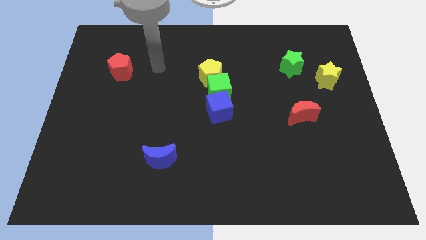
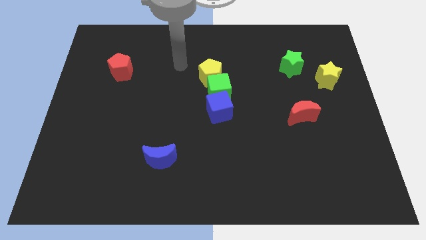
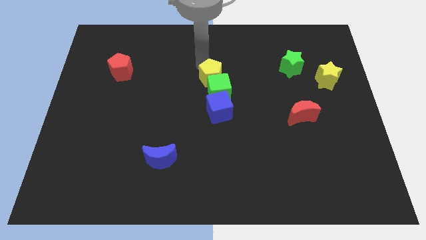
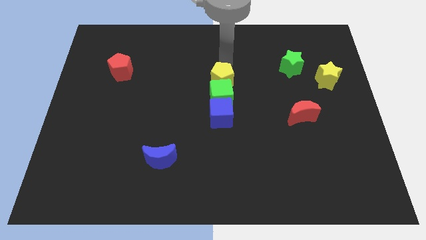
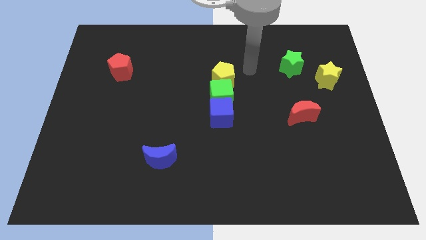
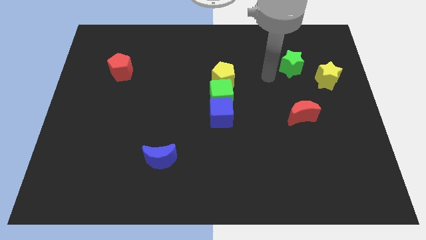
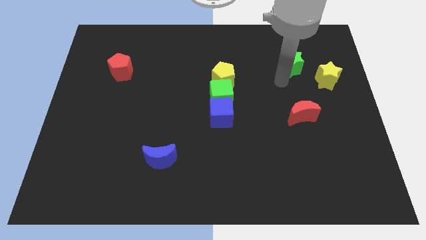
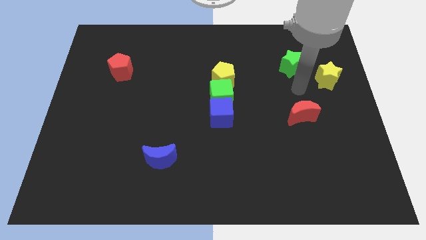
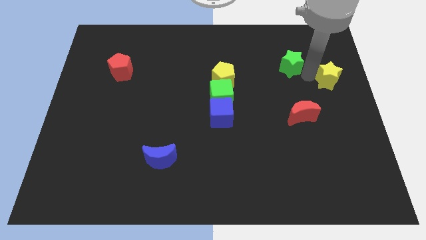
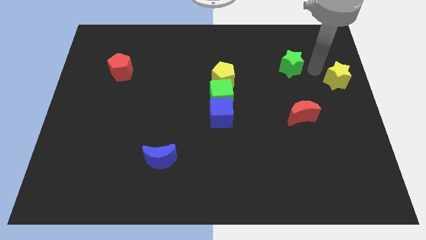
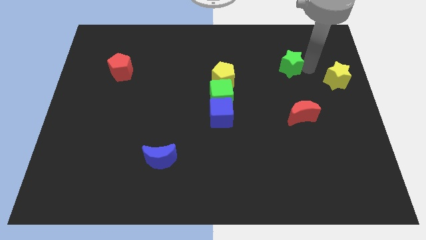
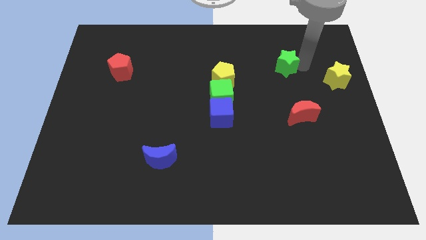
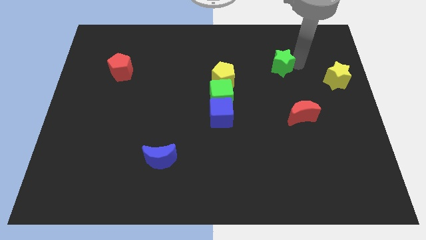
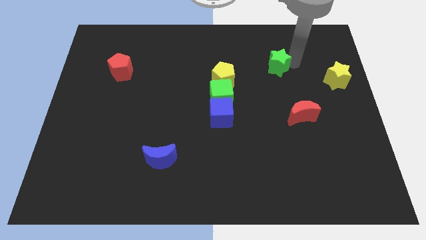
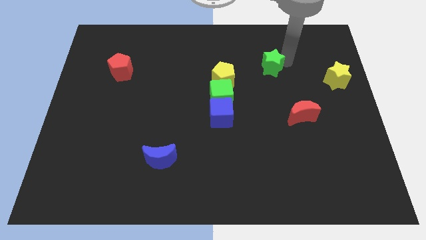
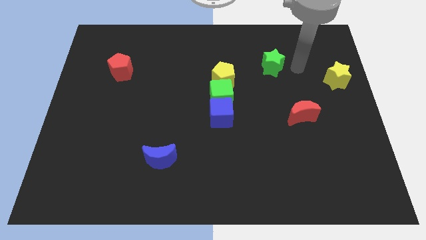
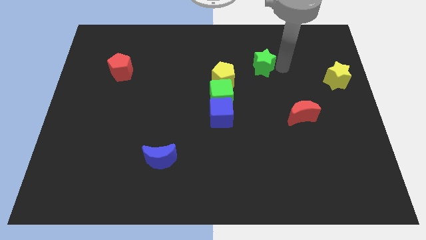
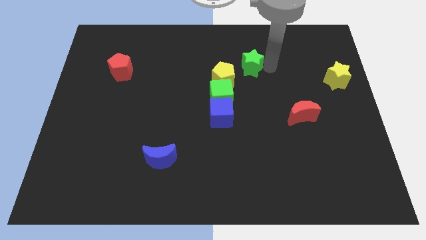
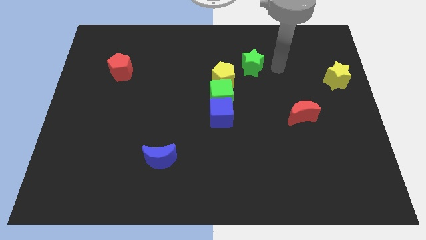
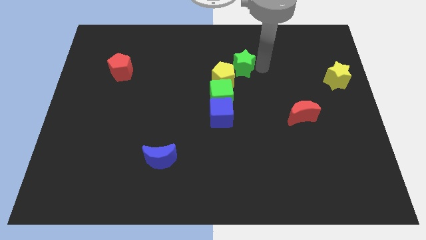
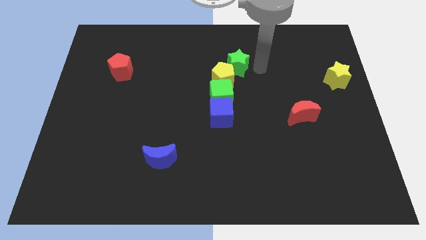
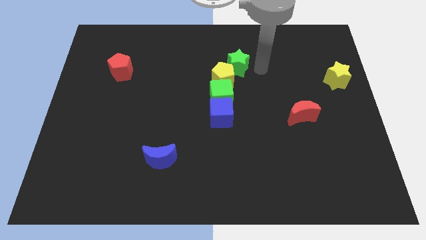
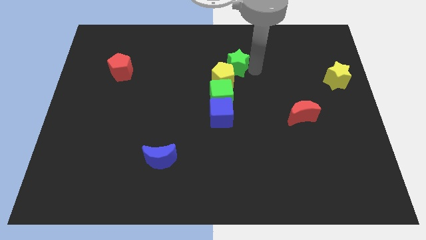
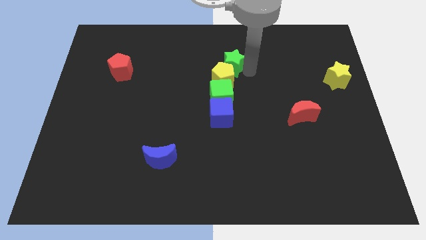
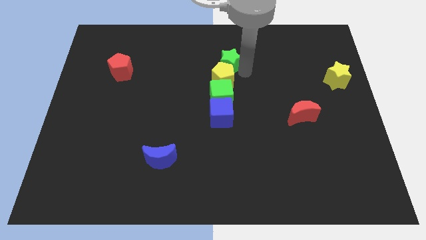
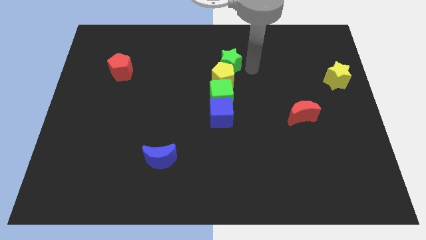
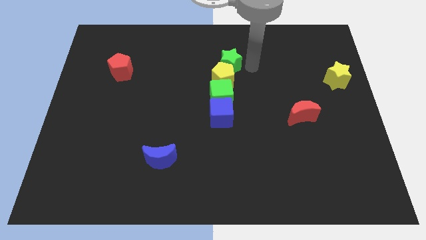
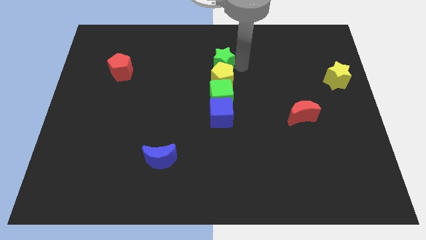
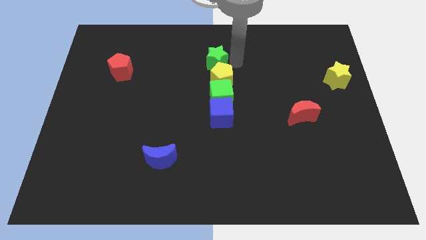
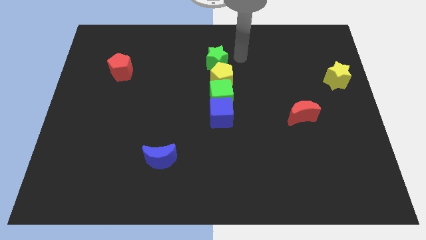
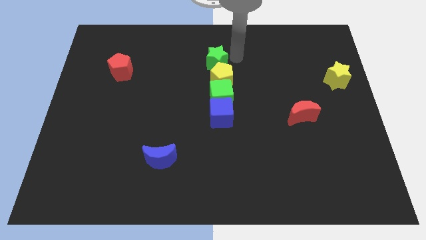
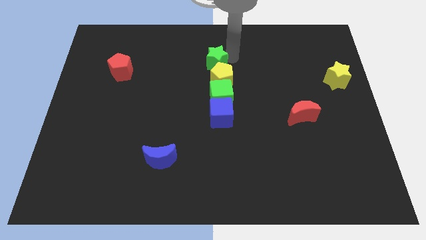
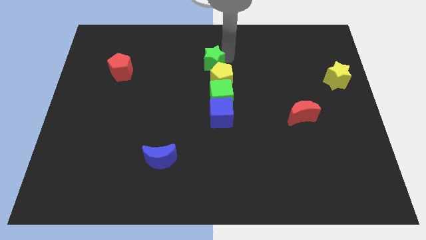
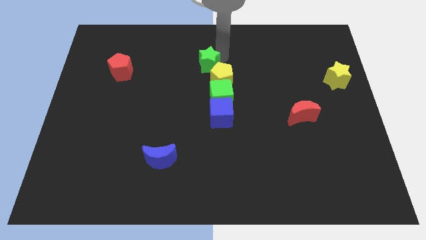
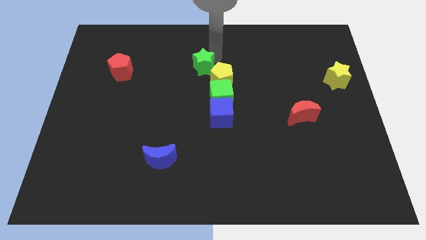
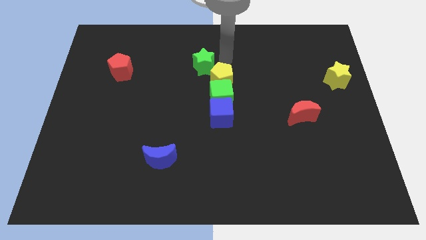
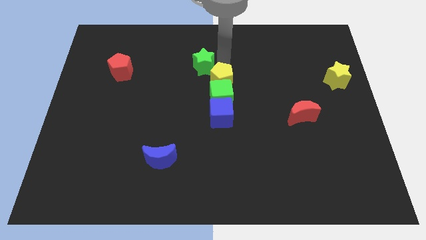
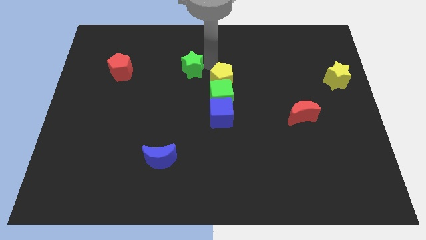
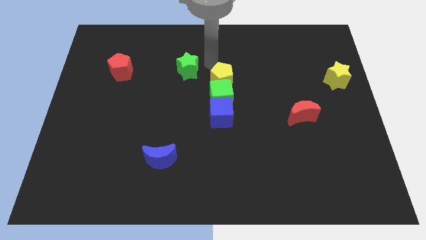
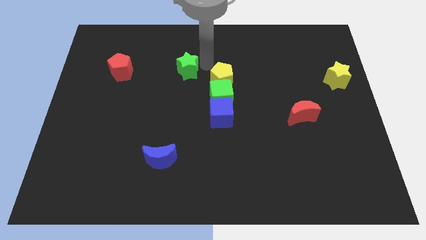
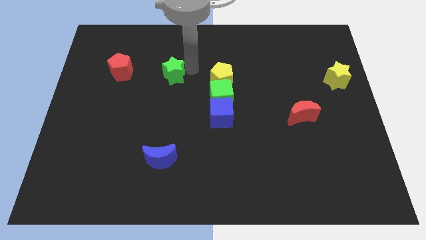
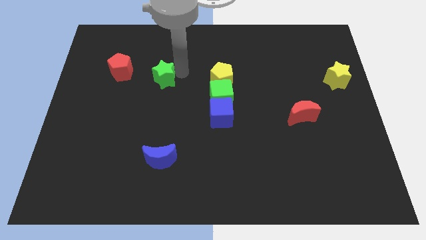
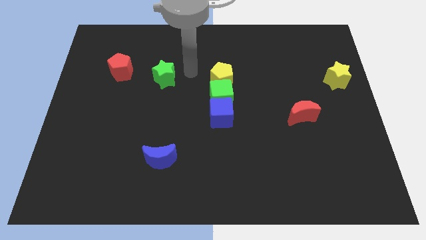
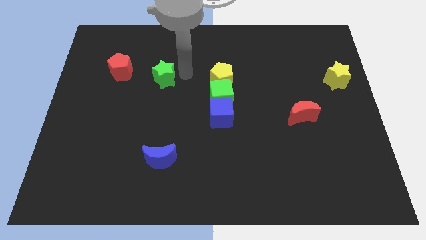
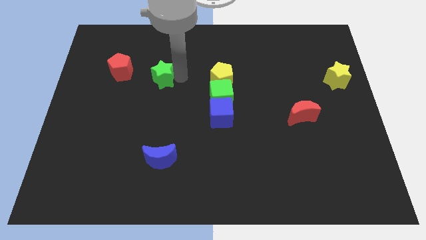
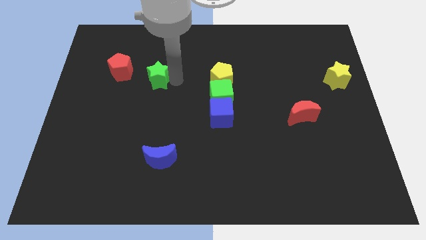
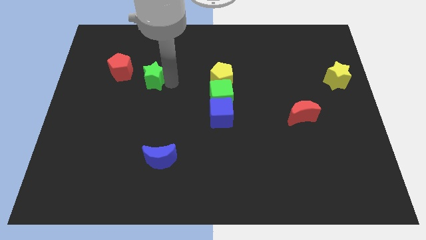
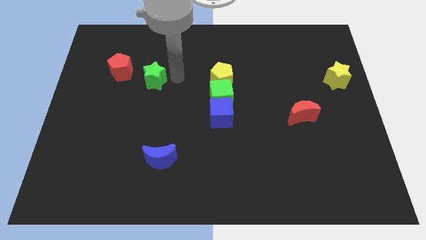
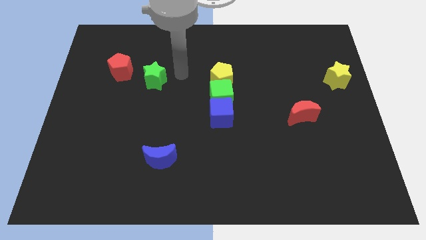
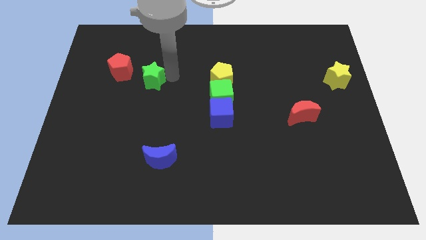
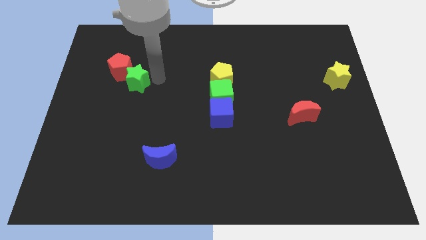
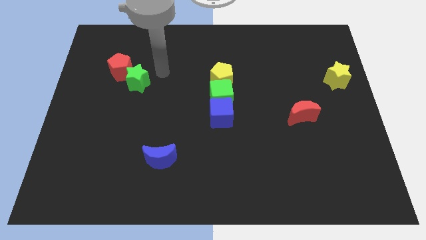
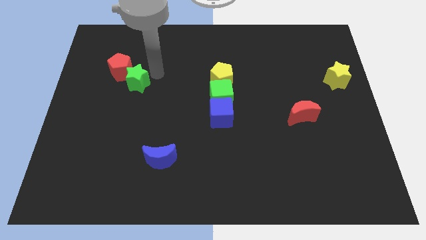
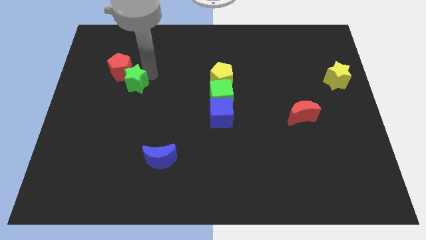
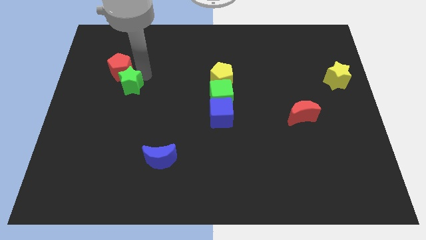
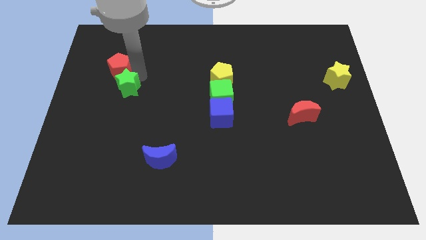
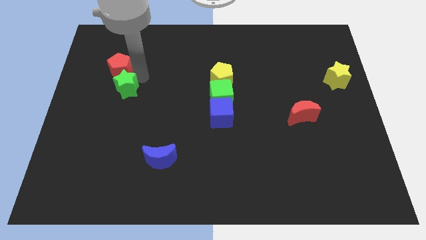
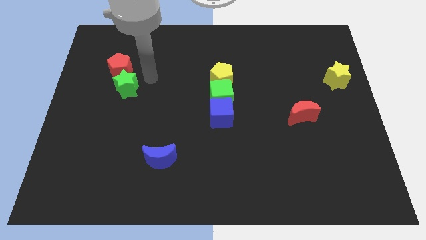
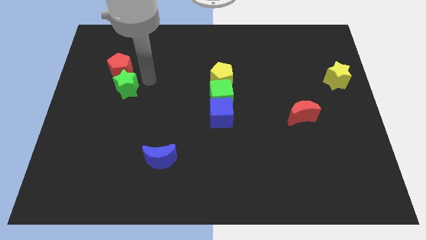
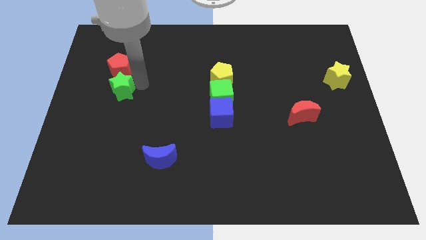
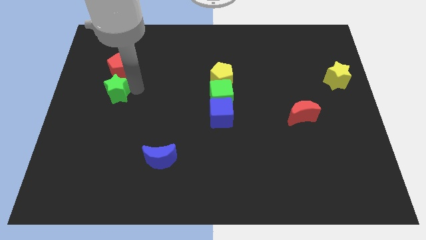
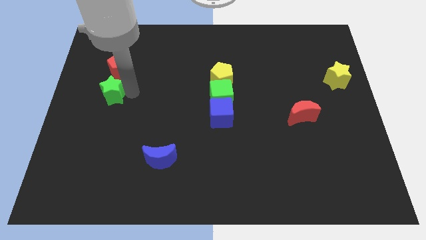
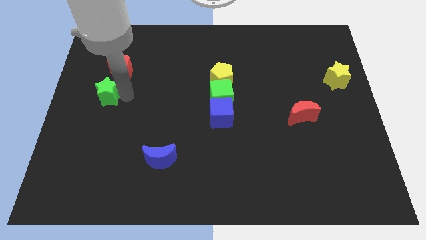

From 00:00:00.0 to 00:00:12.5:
move the green star to the center left
